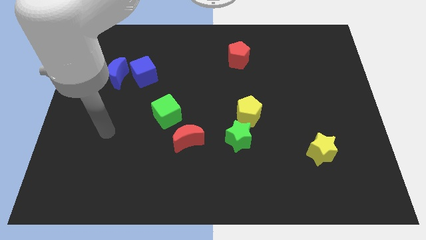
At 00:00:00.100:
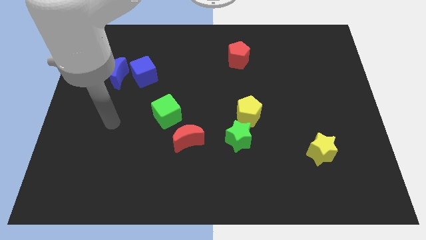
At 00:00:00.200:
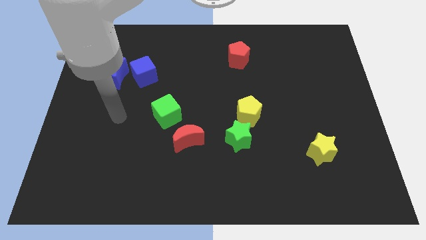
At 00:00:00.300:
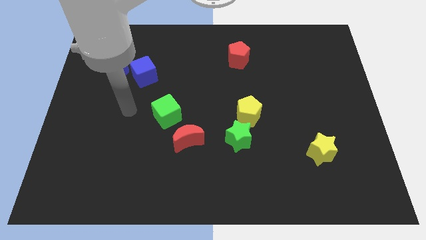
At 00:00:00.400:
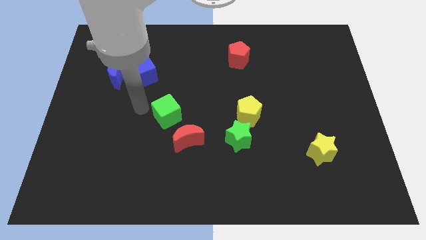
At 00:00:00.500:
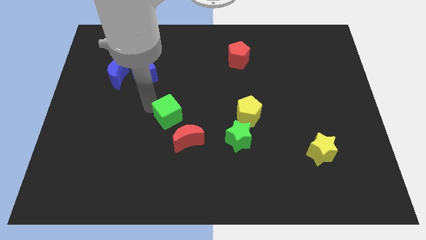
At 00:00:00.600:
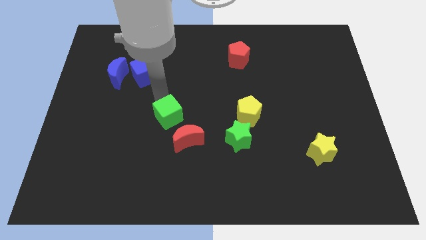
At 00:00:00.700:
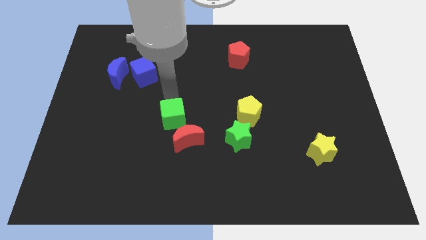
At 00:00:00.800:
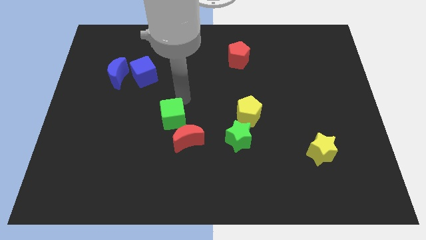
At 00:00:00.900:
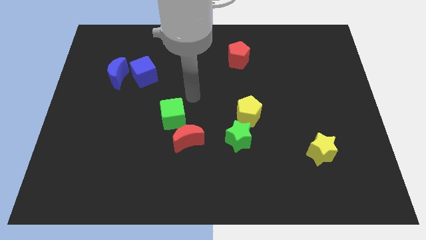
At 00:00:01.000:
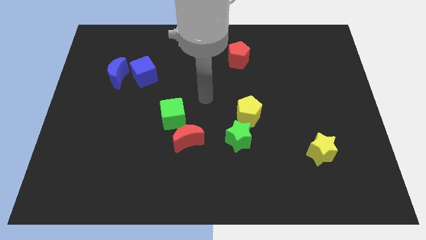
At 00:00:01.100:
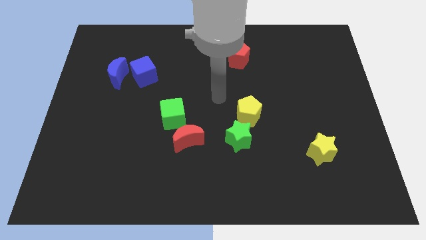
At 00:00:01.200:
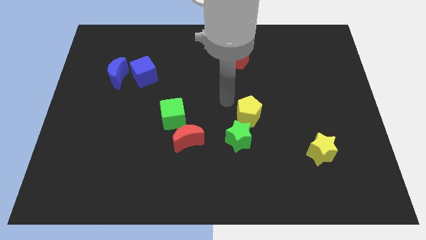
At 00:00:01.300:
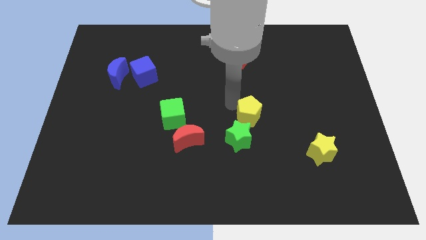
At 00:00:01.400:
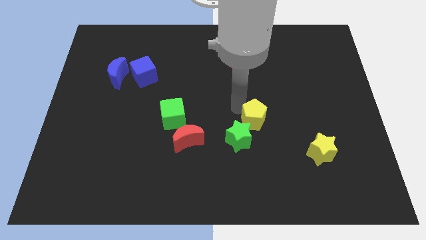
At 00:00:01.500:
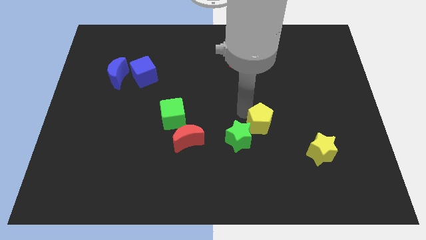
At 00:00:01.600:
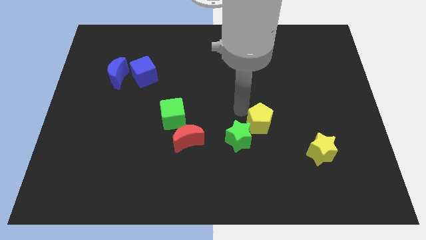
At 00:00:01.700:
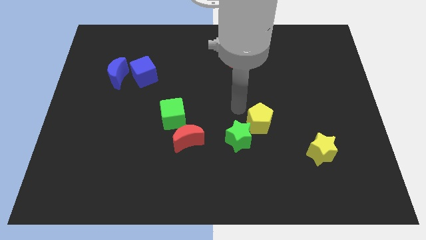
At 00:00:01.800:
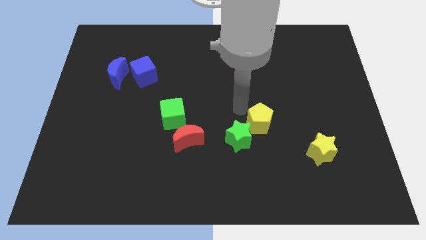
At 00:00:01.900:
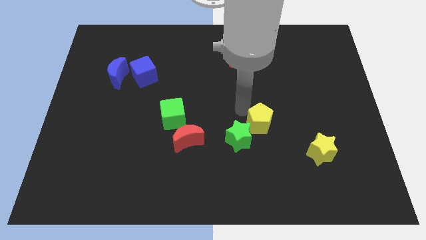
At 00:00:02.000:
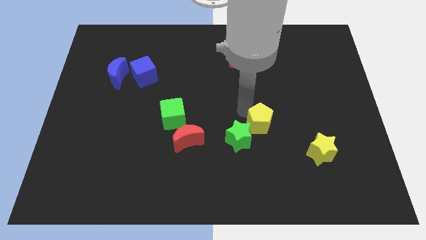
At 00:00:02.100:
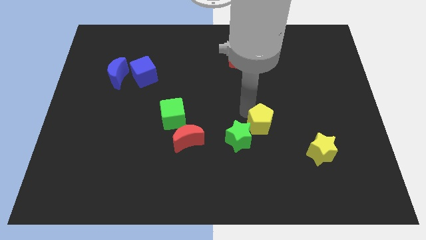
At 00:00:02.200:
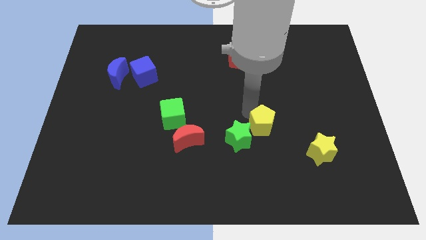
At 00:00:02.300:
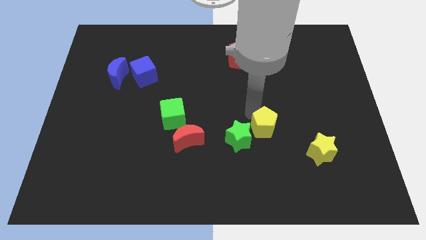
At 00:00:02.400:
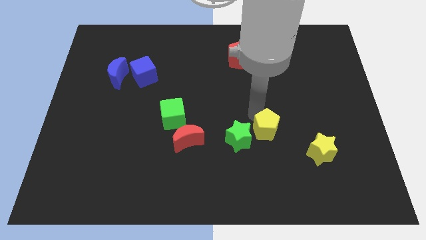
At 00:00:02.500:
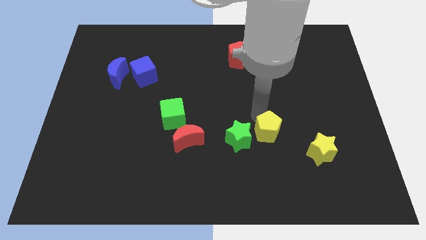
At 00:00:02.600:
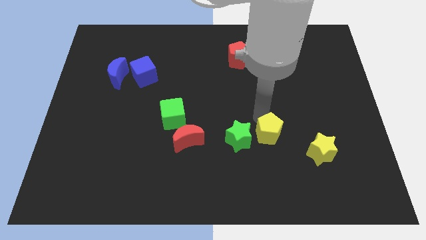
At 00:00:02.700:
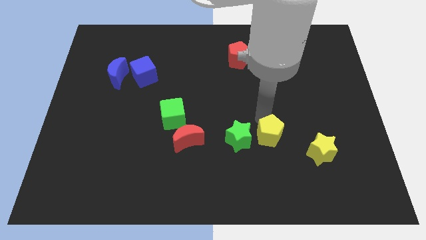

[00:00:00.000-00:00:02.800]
slightly move the yellow pentagon down and right diagonally

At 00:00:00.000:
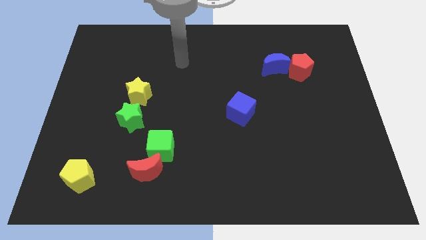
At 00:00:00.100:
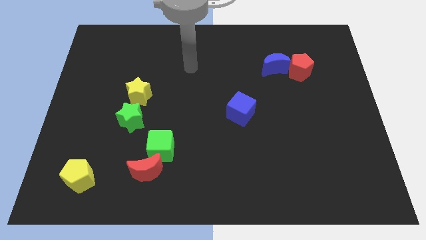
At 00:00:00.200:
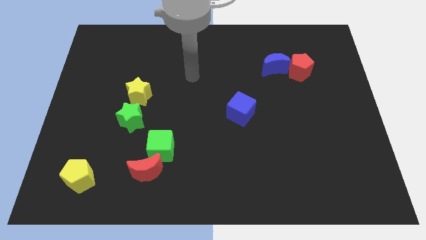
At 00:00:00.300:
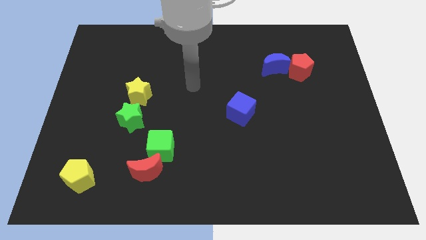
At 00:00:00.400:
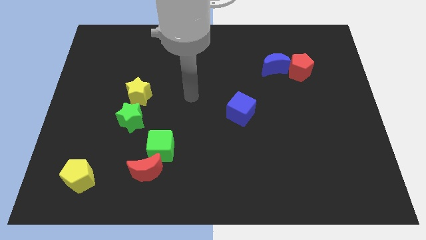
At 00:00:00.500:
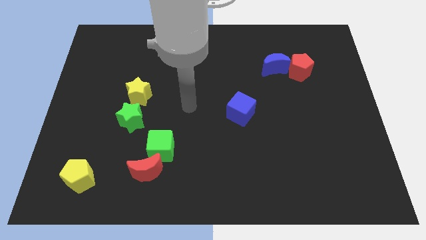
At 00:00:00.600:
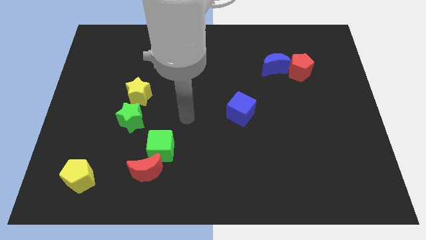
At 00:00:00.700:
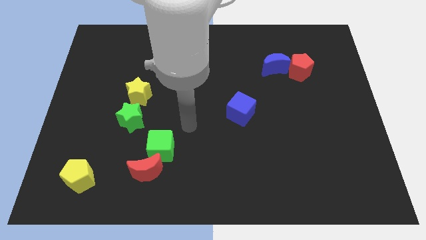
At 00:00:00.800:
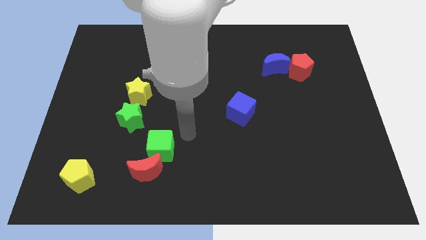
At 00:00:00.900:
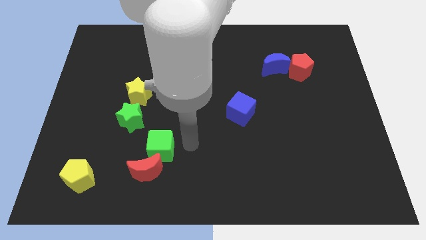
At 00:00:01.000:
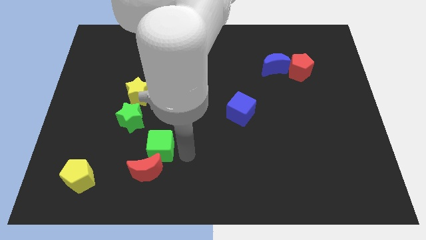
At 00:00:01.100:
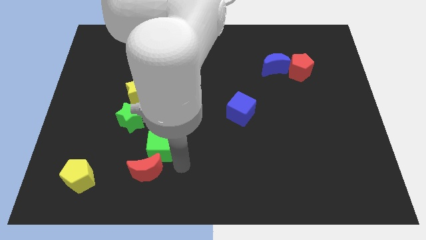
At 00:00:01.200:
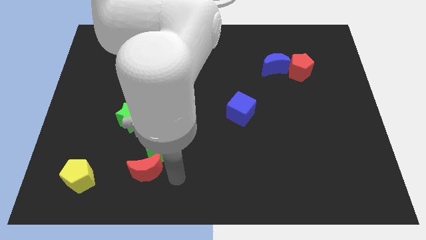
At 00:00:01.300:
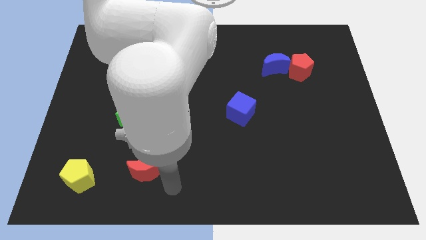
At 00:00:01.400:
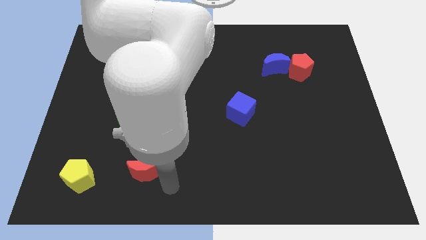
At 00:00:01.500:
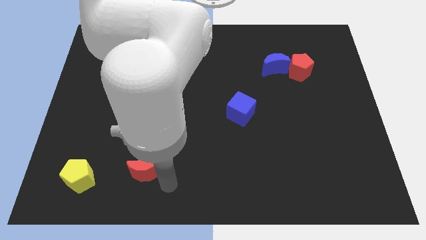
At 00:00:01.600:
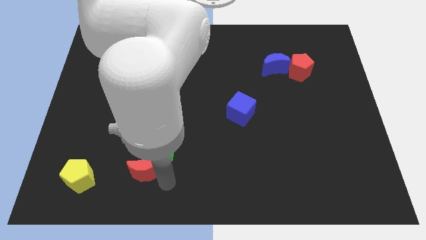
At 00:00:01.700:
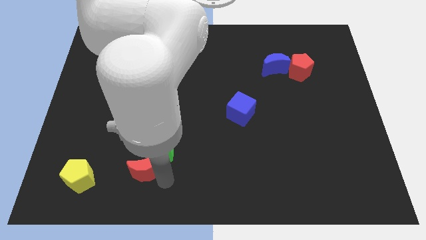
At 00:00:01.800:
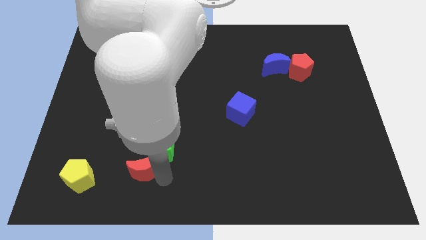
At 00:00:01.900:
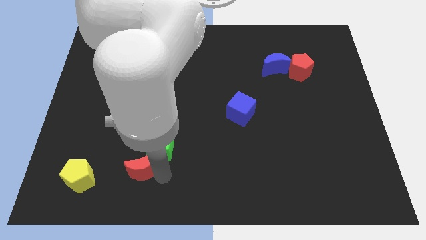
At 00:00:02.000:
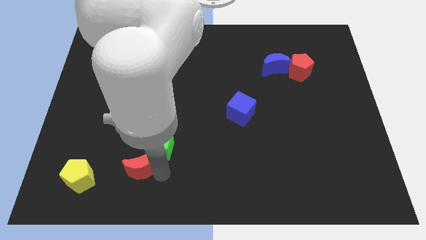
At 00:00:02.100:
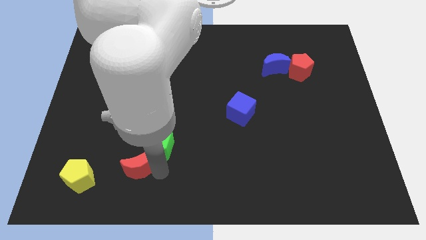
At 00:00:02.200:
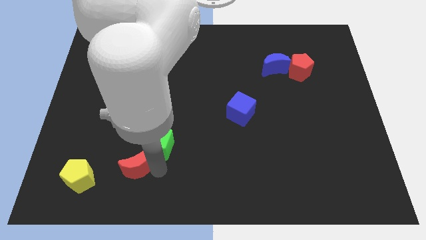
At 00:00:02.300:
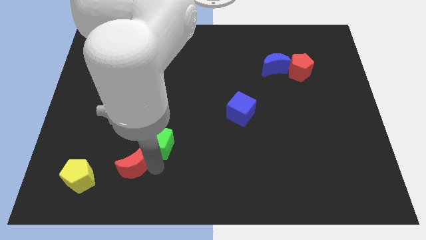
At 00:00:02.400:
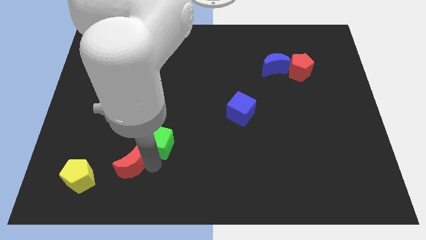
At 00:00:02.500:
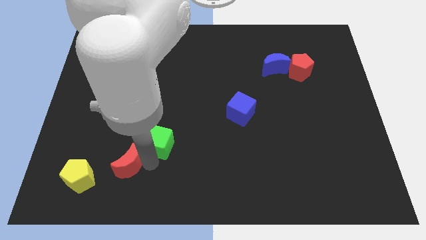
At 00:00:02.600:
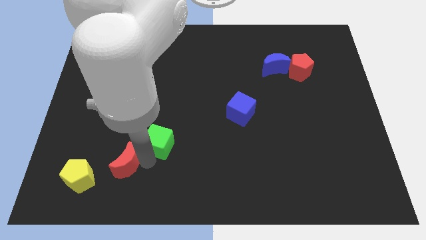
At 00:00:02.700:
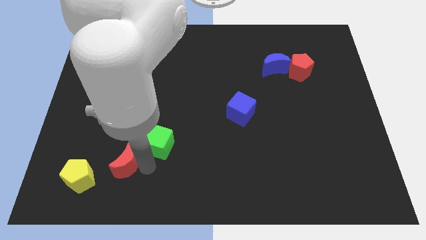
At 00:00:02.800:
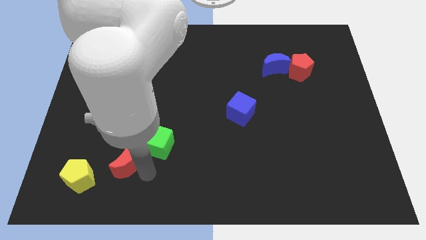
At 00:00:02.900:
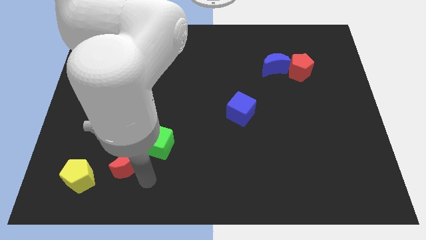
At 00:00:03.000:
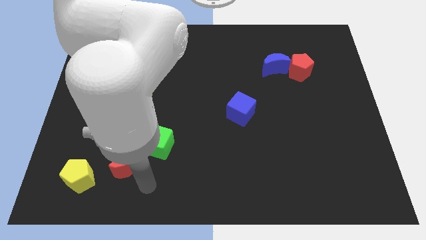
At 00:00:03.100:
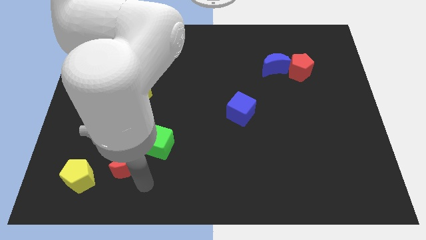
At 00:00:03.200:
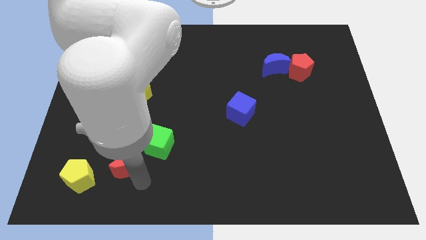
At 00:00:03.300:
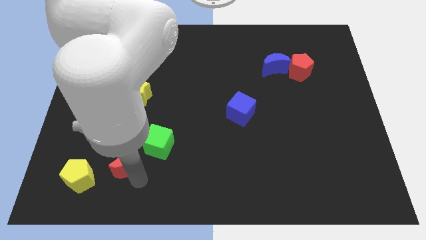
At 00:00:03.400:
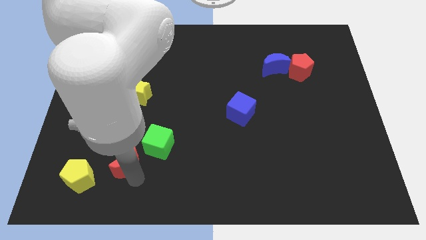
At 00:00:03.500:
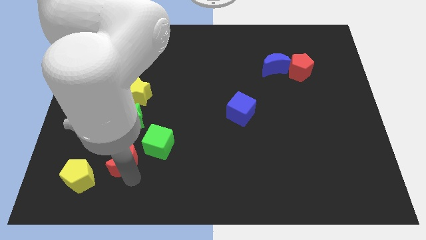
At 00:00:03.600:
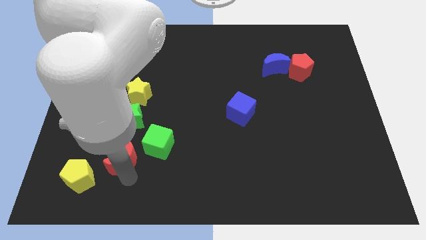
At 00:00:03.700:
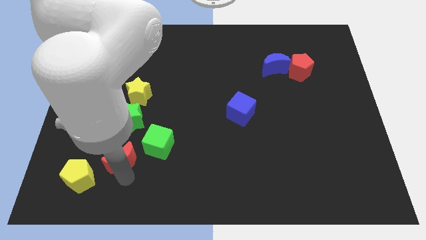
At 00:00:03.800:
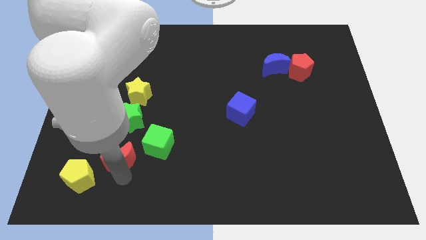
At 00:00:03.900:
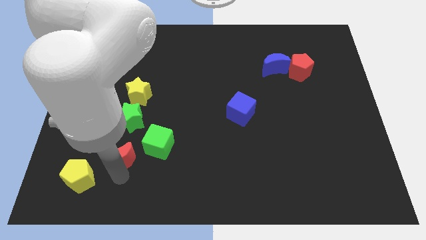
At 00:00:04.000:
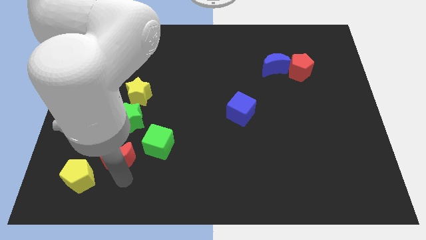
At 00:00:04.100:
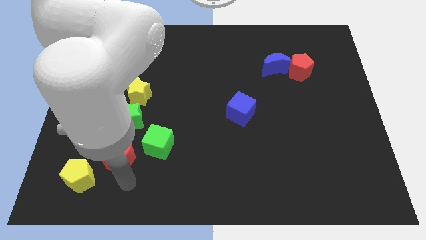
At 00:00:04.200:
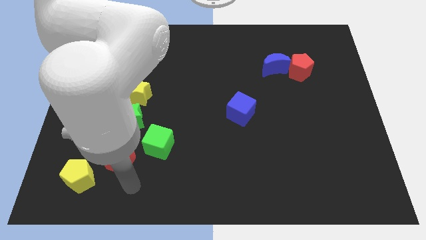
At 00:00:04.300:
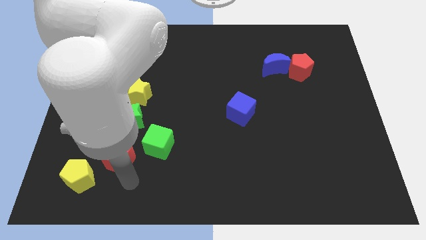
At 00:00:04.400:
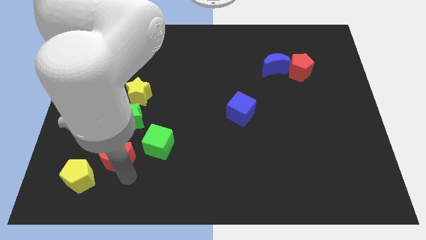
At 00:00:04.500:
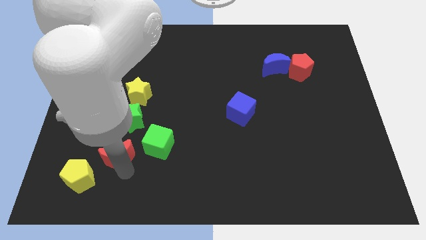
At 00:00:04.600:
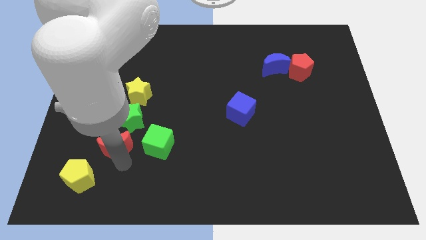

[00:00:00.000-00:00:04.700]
slightly move the red moon up and to the left diagonally

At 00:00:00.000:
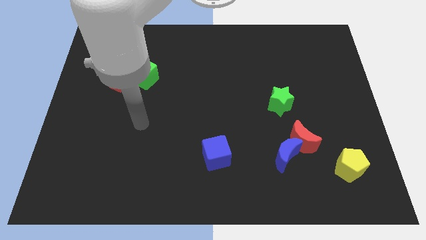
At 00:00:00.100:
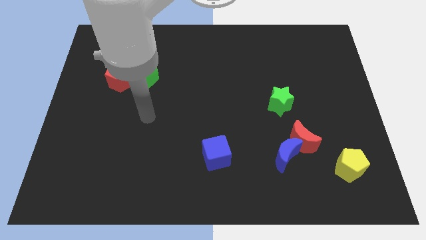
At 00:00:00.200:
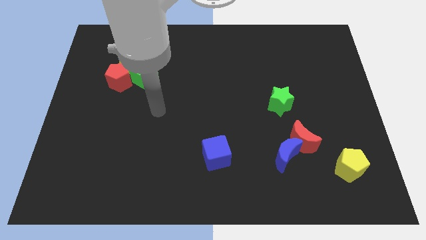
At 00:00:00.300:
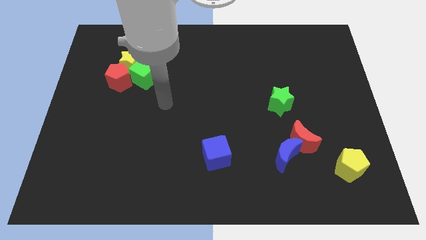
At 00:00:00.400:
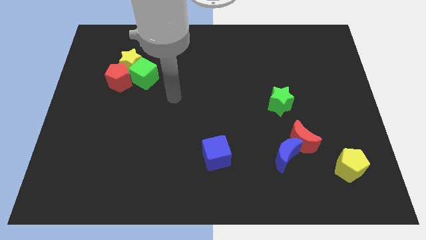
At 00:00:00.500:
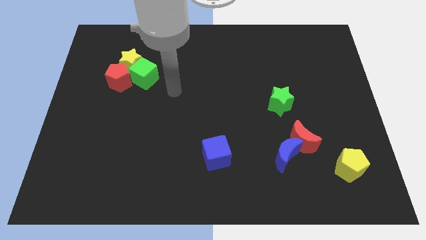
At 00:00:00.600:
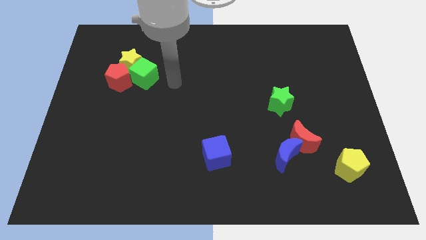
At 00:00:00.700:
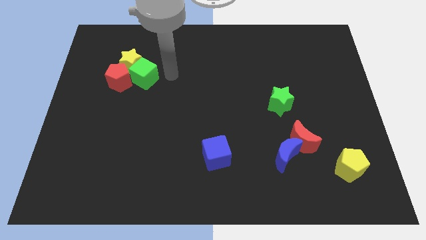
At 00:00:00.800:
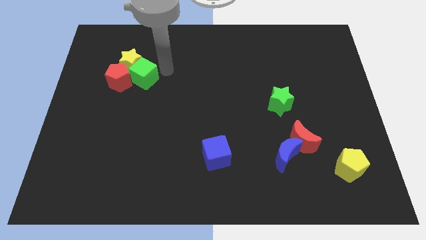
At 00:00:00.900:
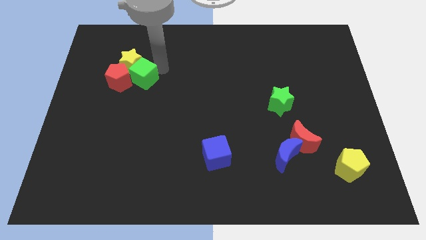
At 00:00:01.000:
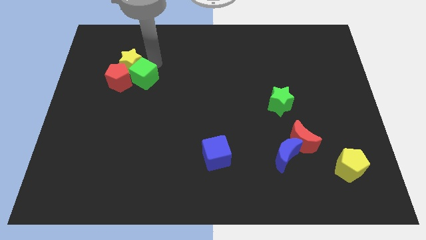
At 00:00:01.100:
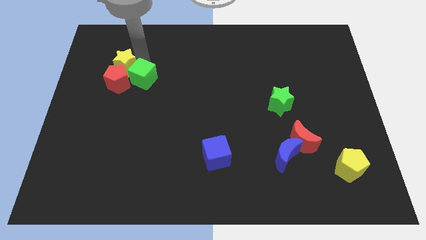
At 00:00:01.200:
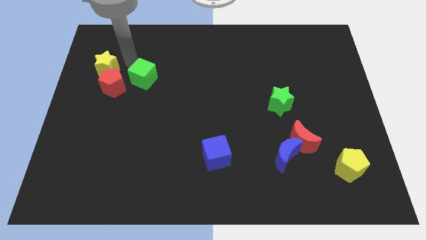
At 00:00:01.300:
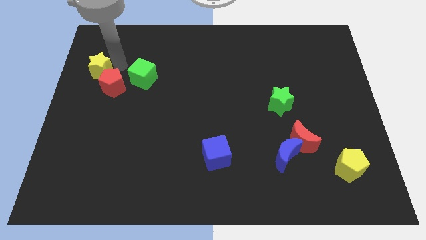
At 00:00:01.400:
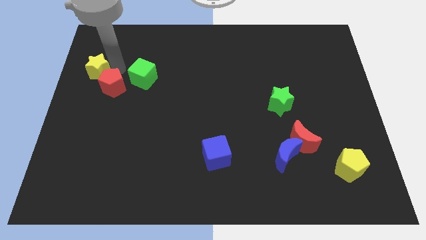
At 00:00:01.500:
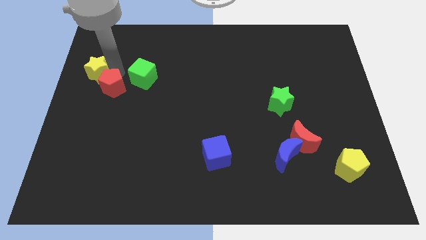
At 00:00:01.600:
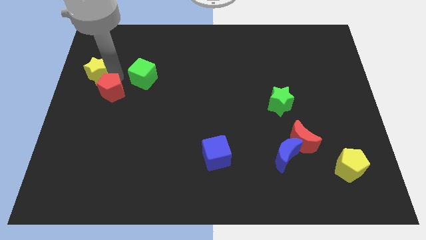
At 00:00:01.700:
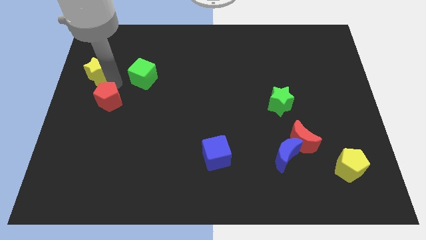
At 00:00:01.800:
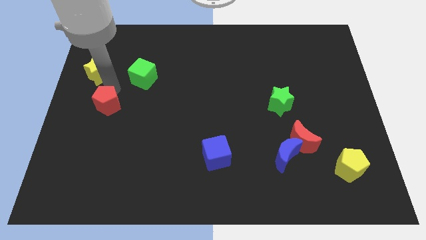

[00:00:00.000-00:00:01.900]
slightly slide the red pentagon downwards
